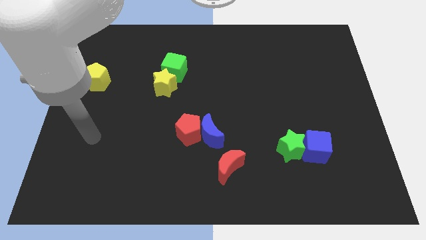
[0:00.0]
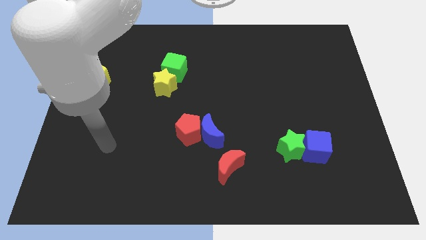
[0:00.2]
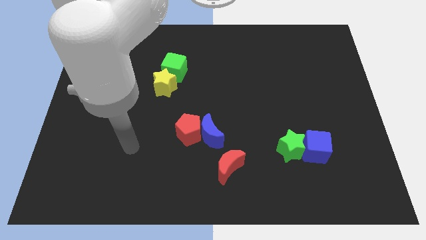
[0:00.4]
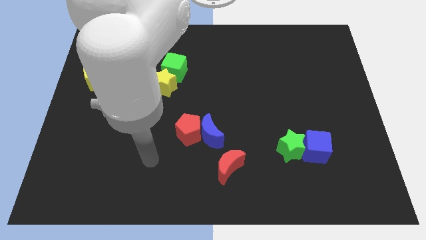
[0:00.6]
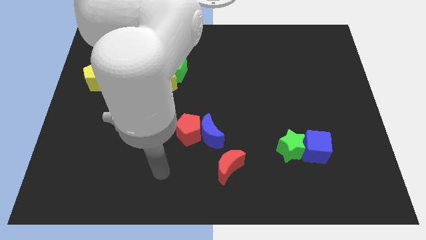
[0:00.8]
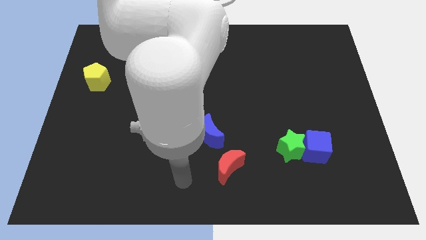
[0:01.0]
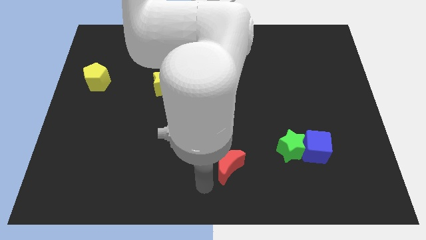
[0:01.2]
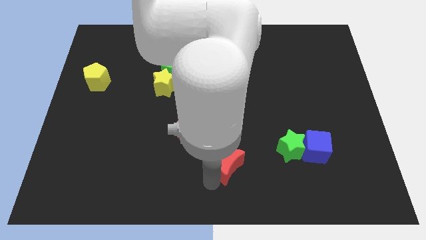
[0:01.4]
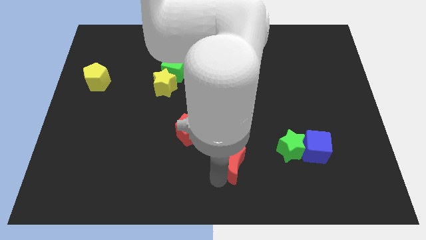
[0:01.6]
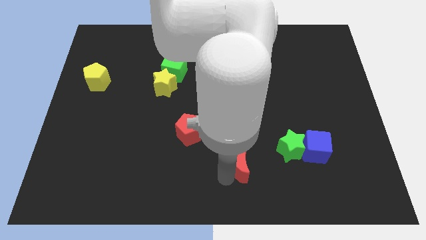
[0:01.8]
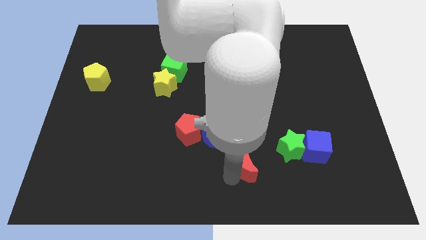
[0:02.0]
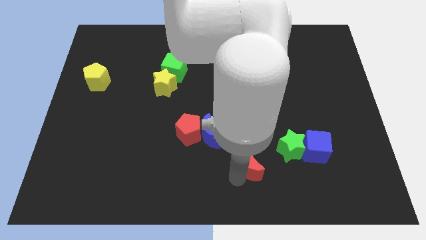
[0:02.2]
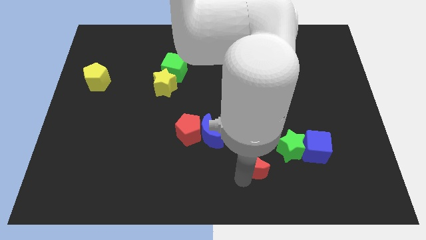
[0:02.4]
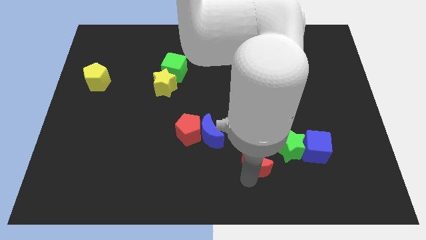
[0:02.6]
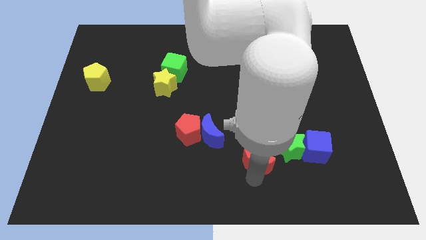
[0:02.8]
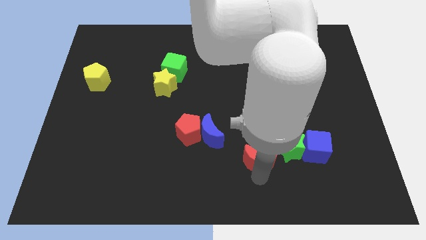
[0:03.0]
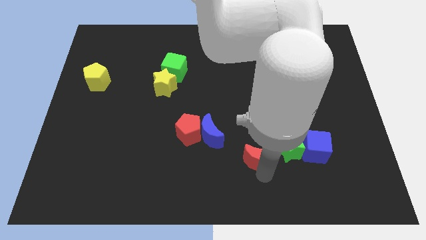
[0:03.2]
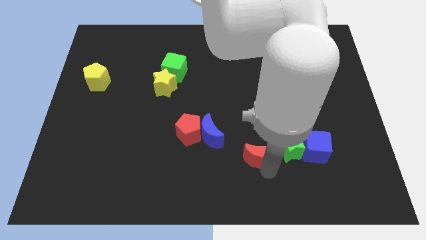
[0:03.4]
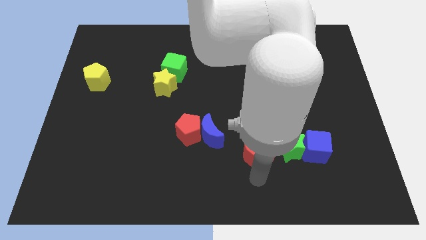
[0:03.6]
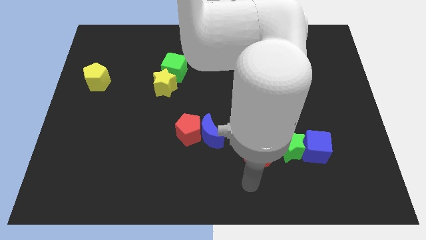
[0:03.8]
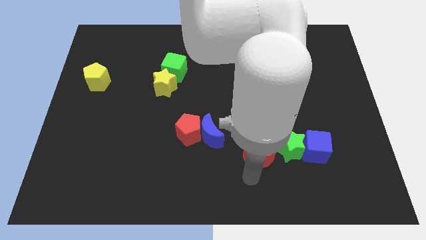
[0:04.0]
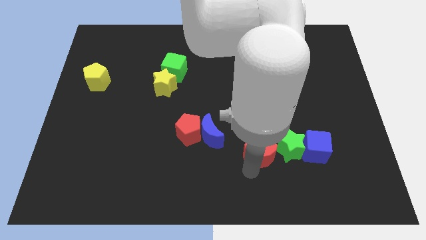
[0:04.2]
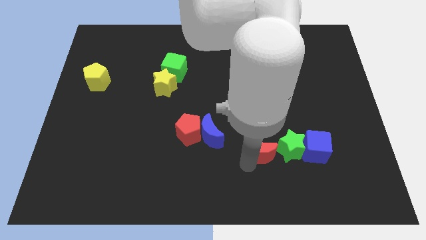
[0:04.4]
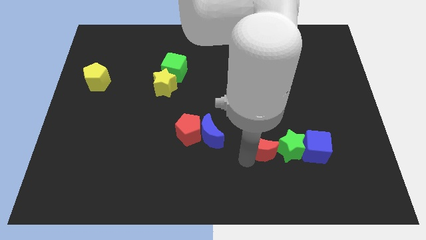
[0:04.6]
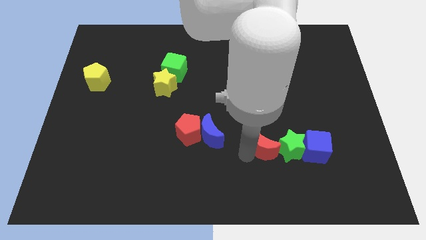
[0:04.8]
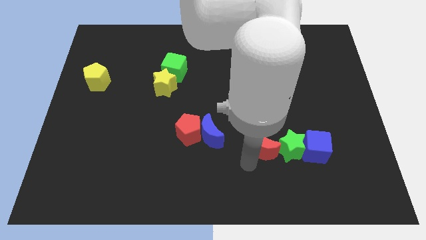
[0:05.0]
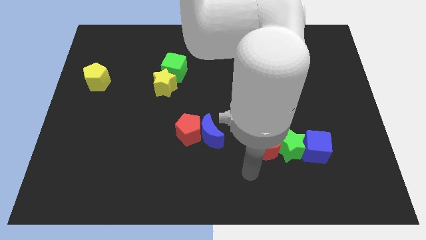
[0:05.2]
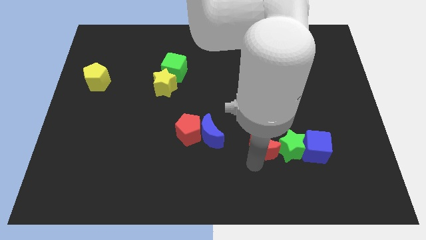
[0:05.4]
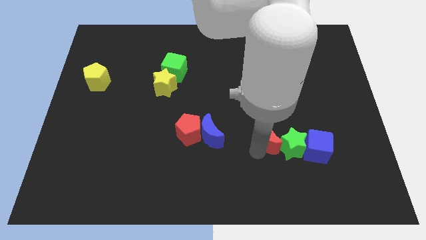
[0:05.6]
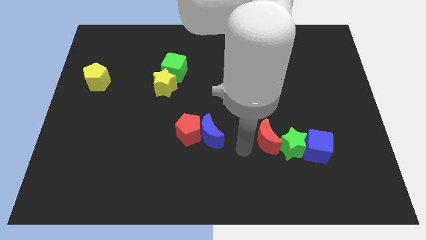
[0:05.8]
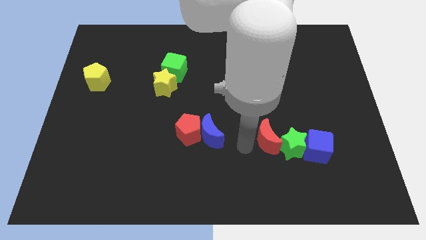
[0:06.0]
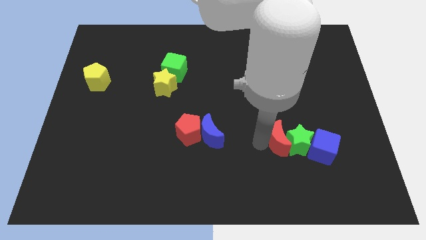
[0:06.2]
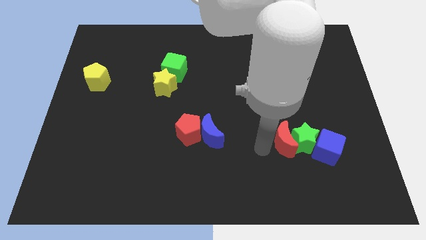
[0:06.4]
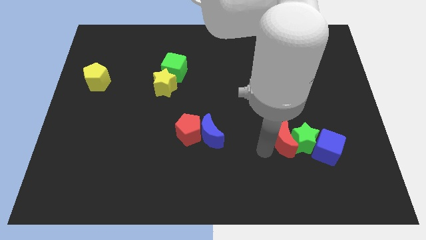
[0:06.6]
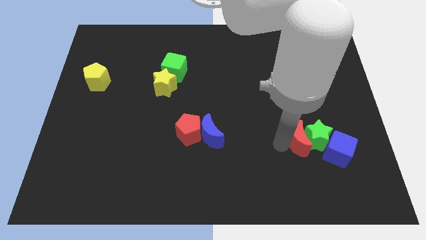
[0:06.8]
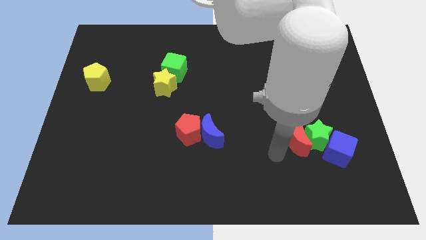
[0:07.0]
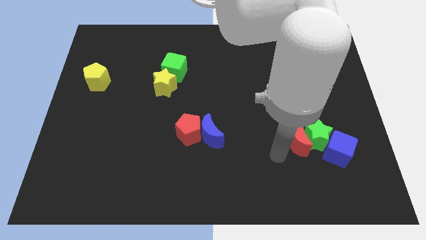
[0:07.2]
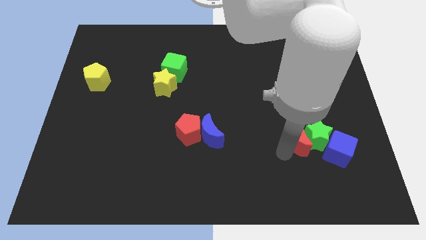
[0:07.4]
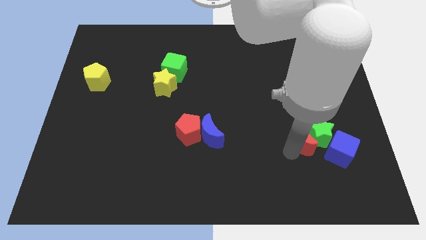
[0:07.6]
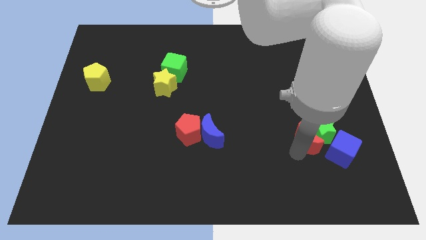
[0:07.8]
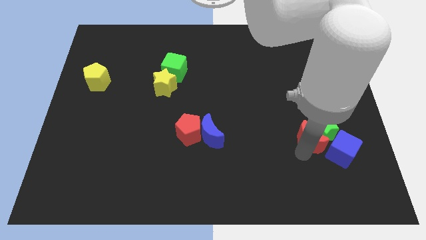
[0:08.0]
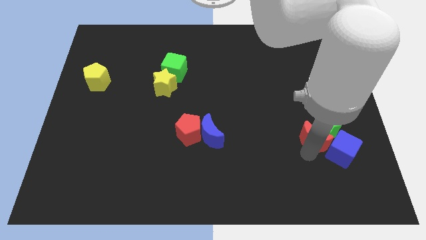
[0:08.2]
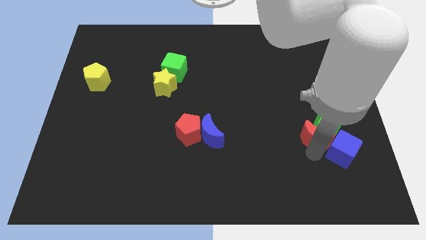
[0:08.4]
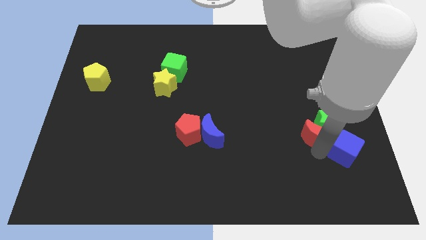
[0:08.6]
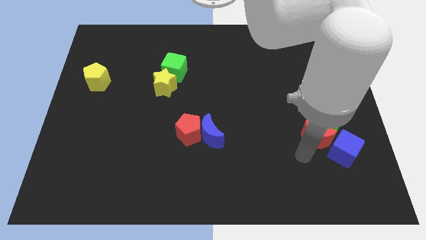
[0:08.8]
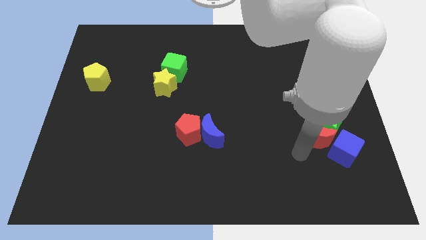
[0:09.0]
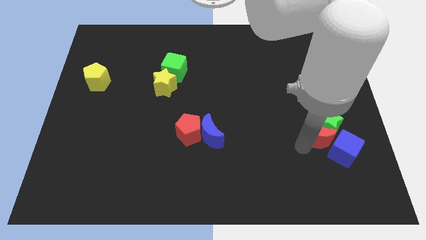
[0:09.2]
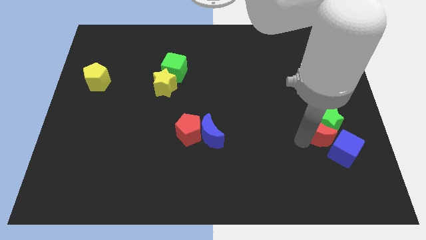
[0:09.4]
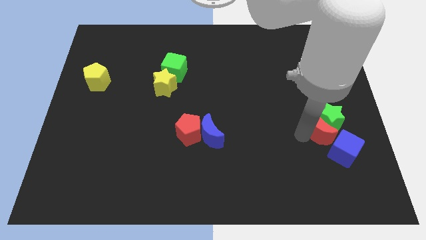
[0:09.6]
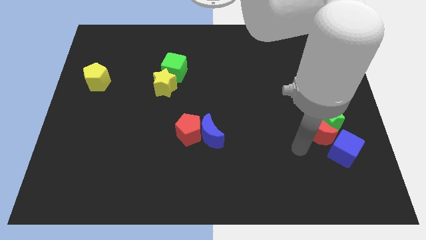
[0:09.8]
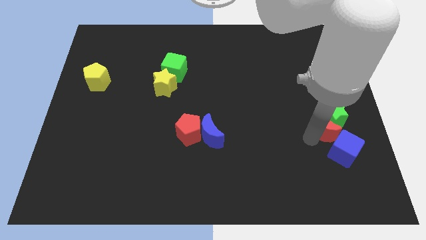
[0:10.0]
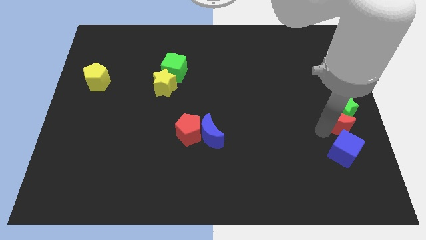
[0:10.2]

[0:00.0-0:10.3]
slide the red moon to the center right

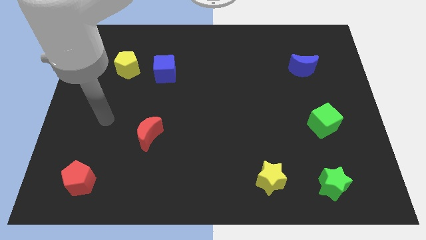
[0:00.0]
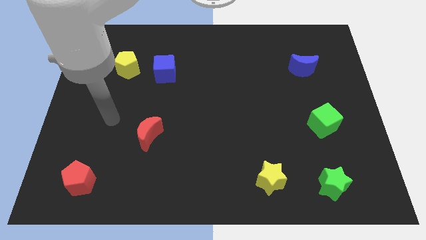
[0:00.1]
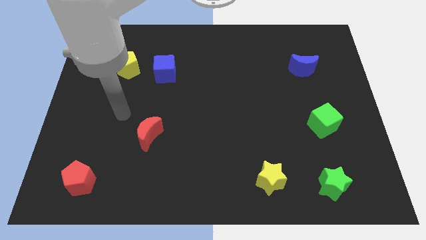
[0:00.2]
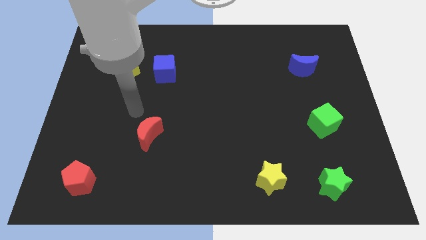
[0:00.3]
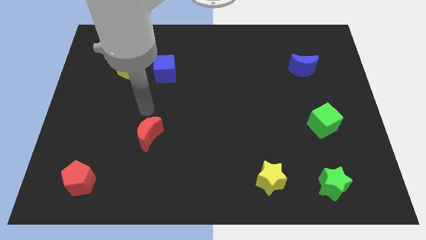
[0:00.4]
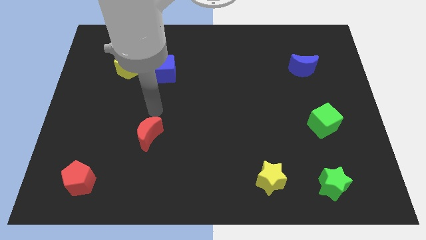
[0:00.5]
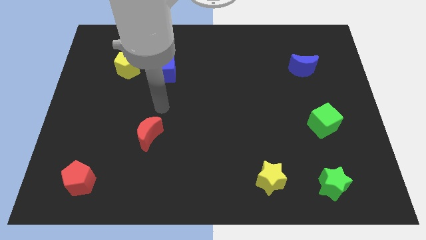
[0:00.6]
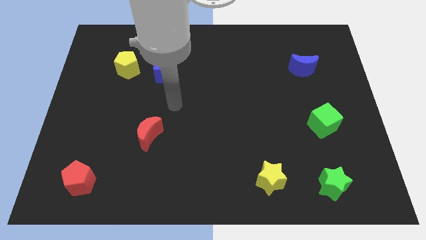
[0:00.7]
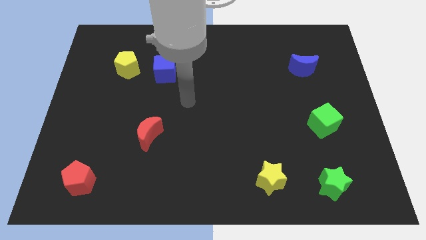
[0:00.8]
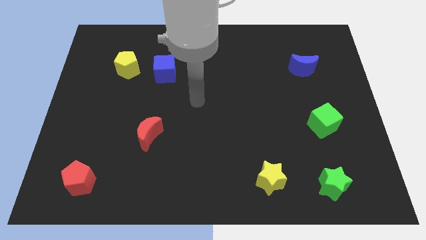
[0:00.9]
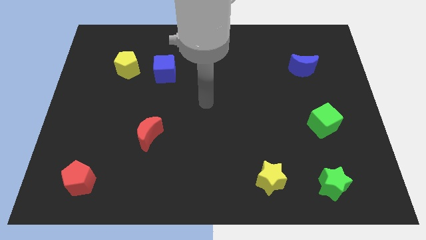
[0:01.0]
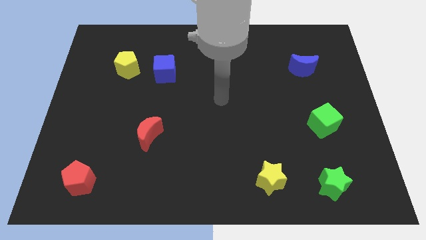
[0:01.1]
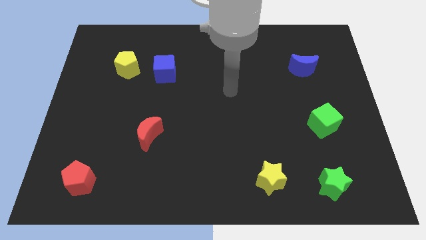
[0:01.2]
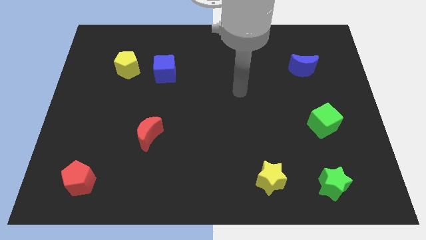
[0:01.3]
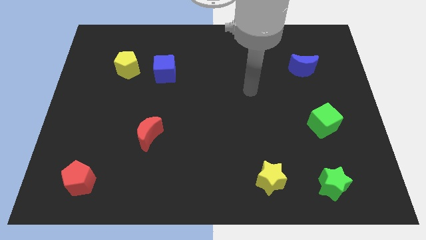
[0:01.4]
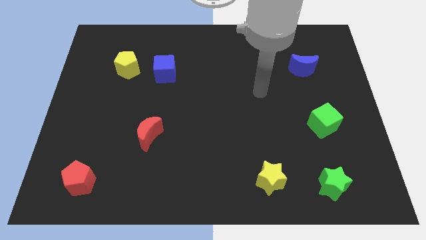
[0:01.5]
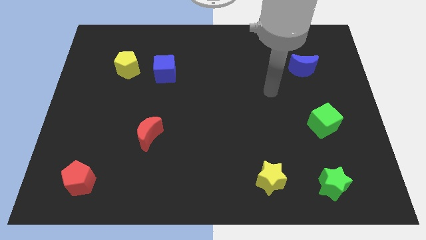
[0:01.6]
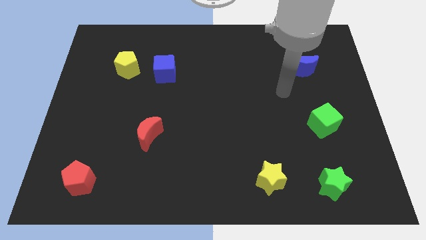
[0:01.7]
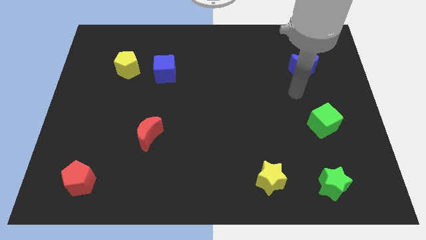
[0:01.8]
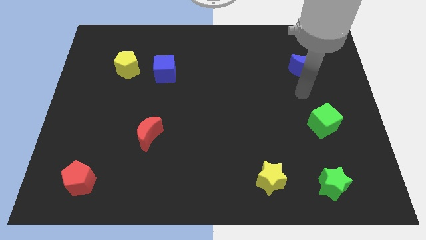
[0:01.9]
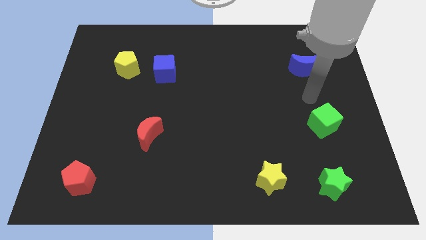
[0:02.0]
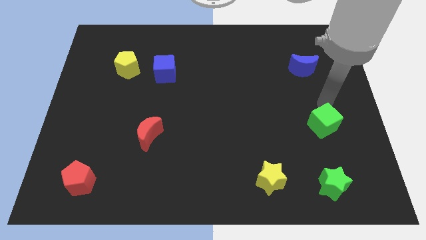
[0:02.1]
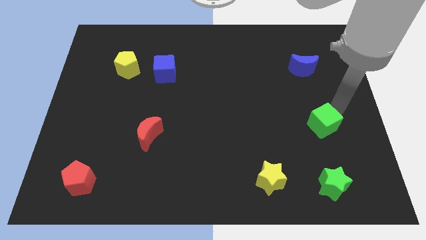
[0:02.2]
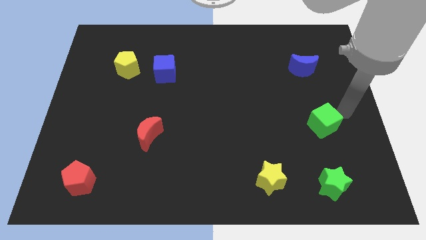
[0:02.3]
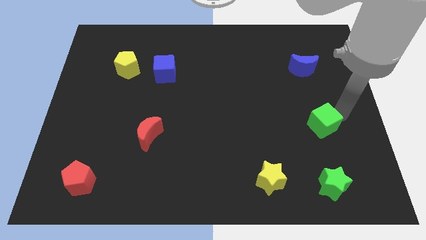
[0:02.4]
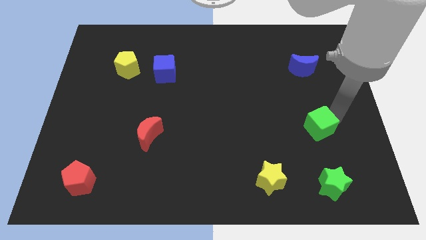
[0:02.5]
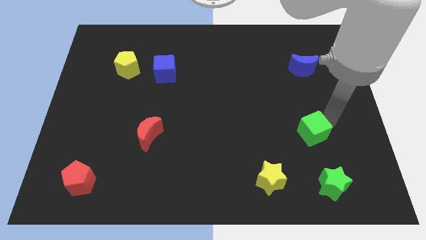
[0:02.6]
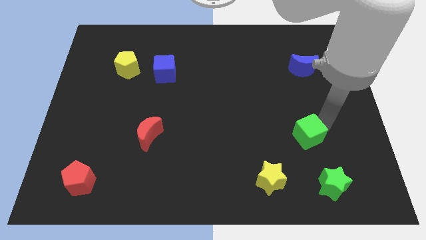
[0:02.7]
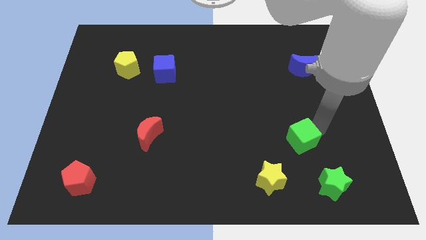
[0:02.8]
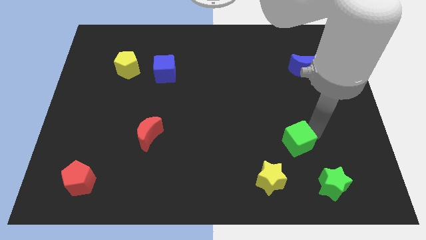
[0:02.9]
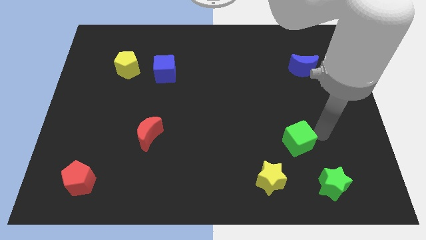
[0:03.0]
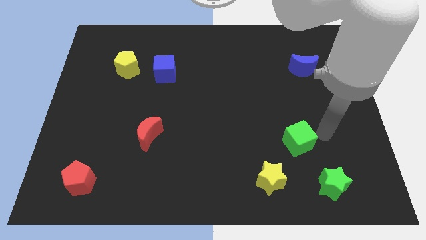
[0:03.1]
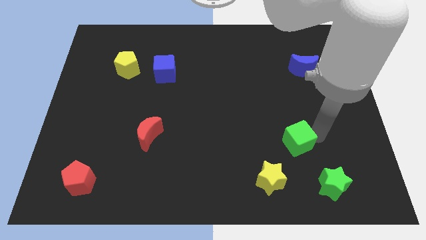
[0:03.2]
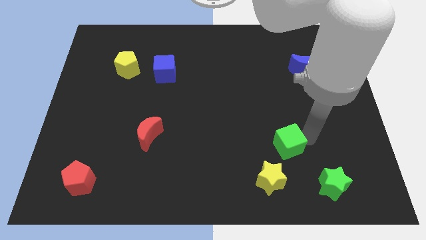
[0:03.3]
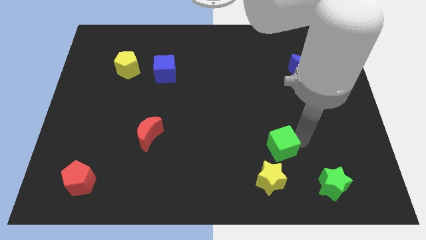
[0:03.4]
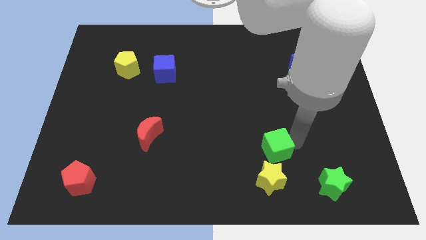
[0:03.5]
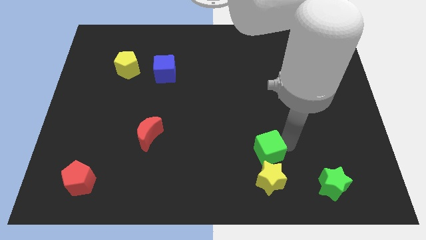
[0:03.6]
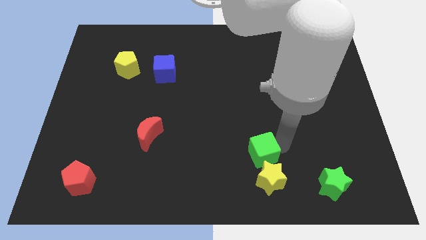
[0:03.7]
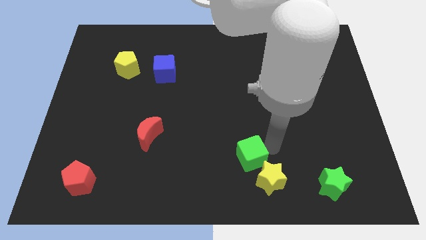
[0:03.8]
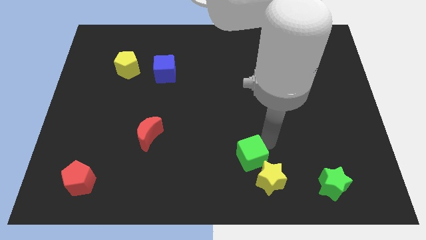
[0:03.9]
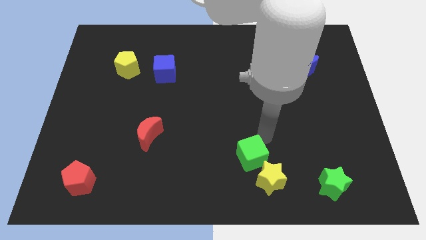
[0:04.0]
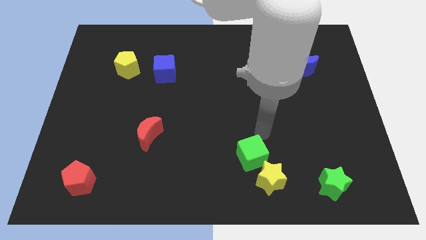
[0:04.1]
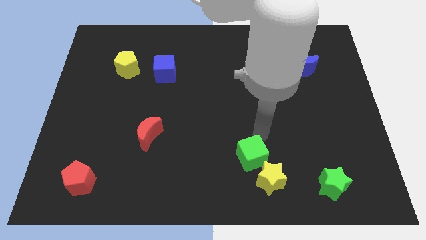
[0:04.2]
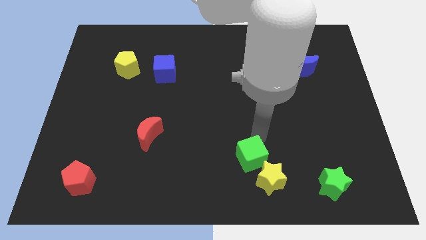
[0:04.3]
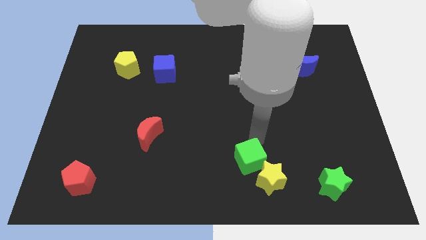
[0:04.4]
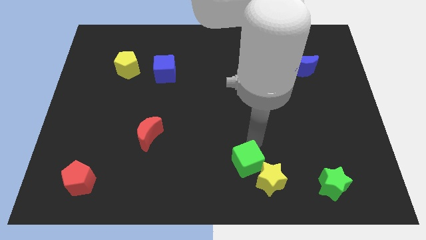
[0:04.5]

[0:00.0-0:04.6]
push the green cube to the bottom
